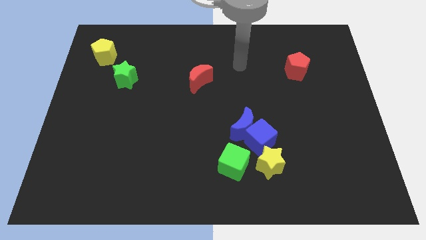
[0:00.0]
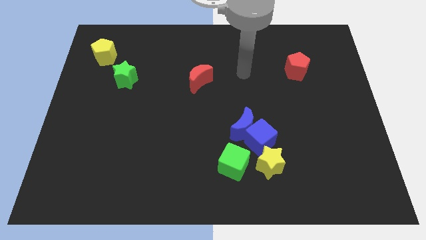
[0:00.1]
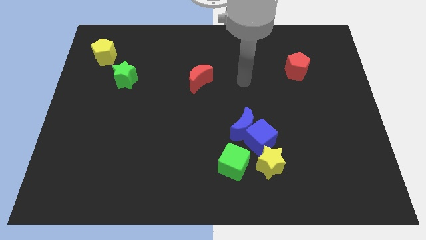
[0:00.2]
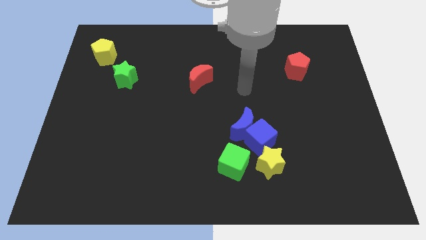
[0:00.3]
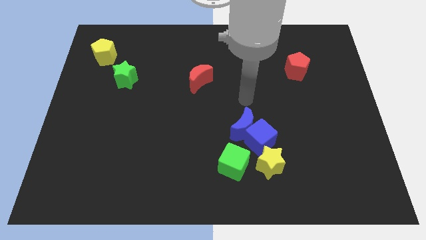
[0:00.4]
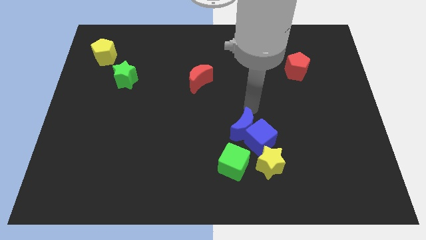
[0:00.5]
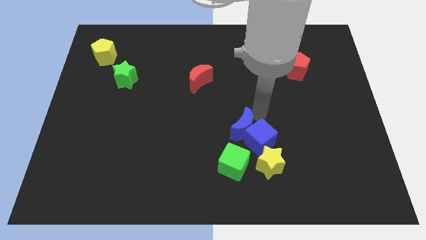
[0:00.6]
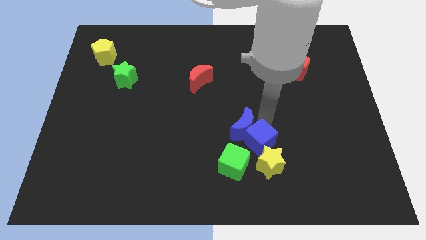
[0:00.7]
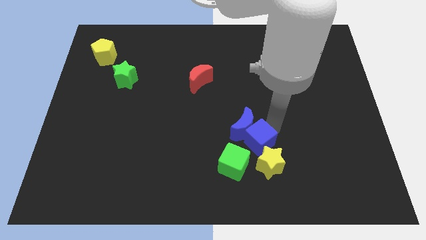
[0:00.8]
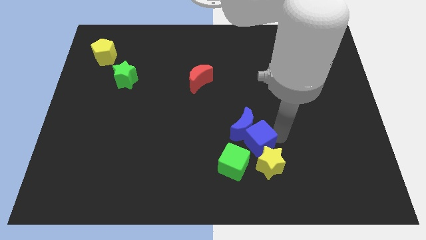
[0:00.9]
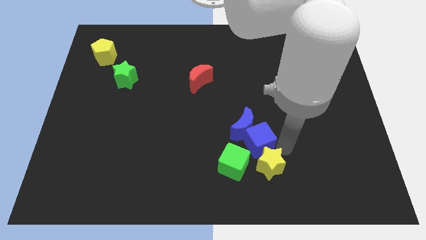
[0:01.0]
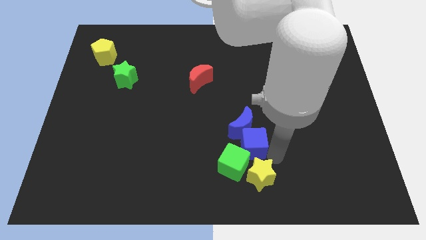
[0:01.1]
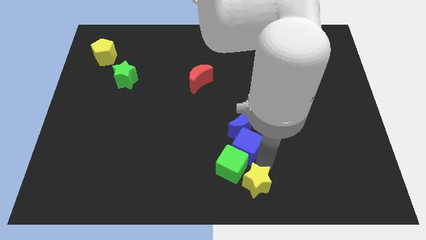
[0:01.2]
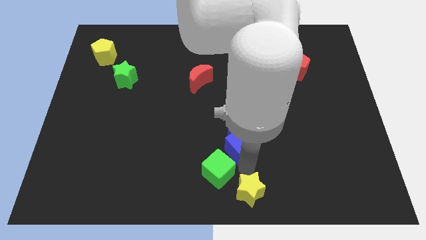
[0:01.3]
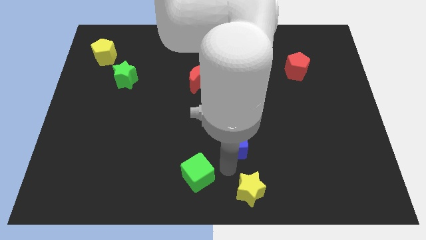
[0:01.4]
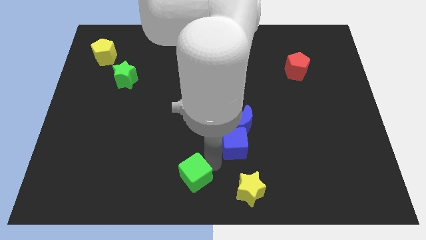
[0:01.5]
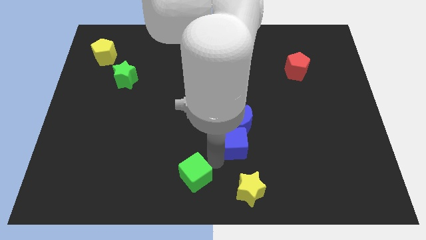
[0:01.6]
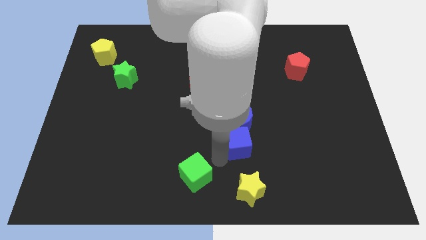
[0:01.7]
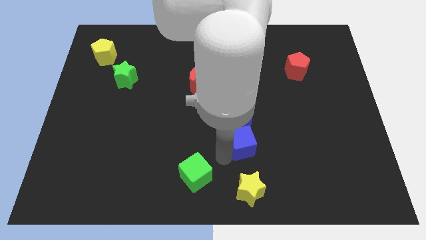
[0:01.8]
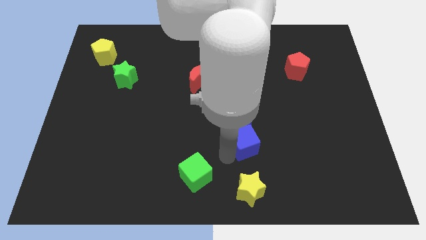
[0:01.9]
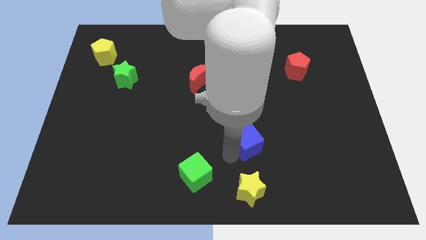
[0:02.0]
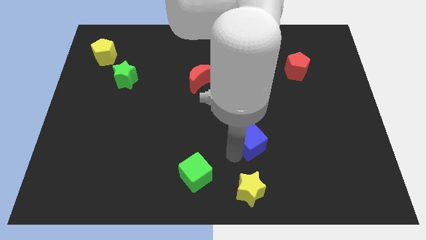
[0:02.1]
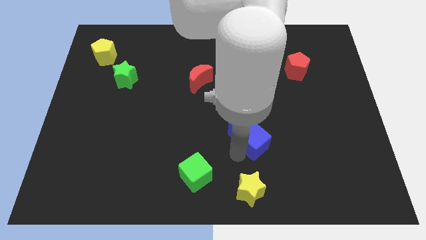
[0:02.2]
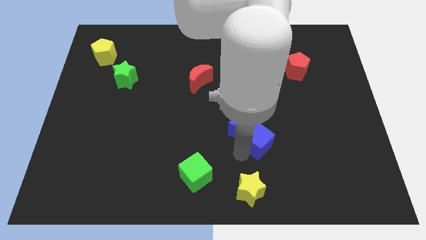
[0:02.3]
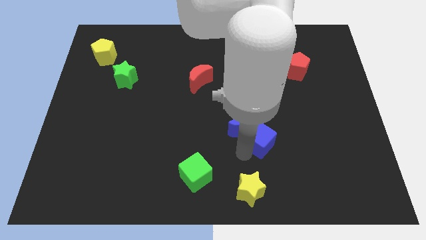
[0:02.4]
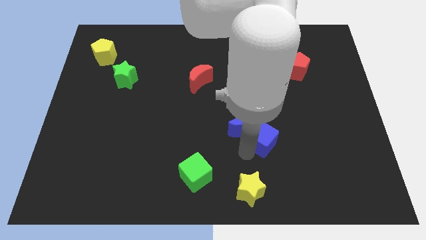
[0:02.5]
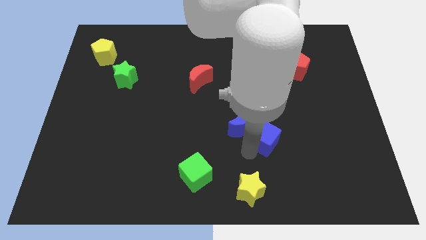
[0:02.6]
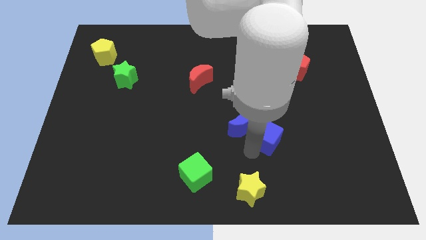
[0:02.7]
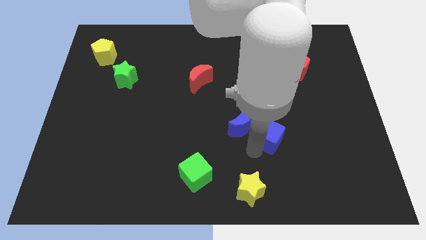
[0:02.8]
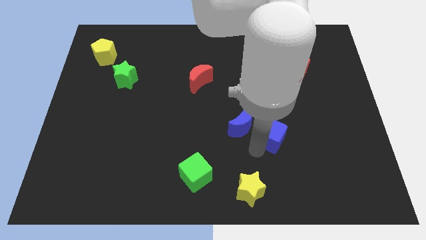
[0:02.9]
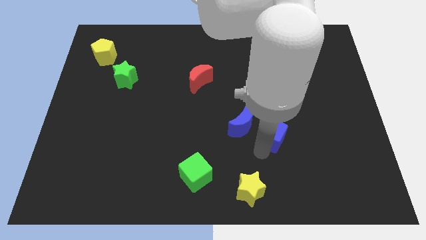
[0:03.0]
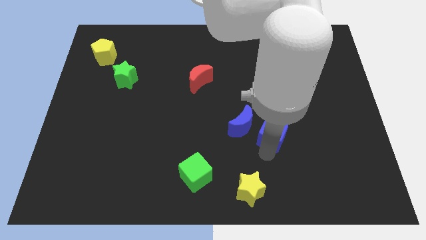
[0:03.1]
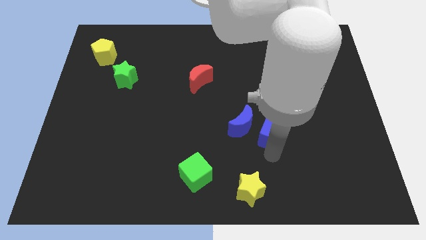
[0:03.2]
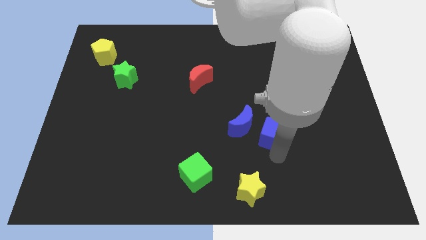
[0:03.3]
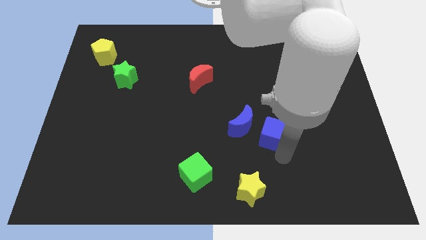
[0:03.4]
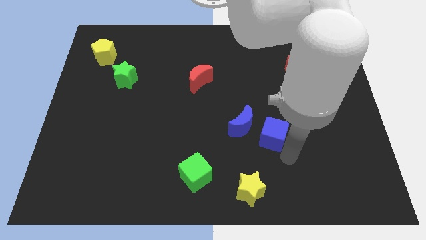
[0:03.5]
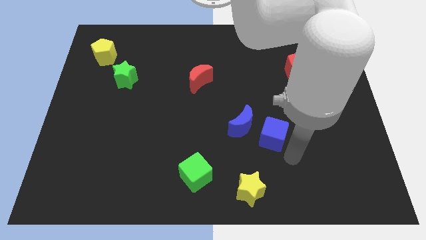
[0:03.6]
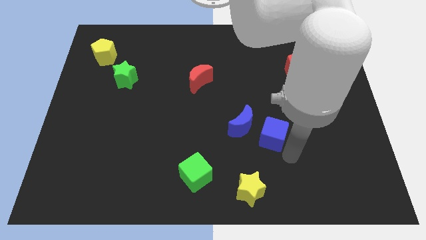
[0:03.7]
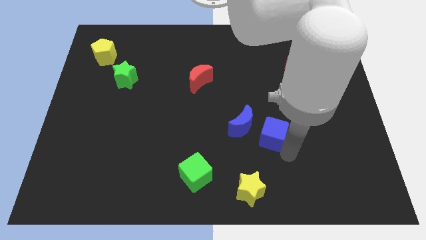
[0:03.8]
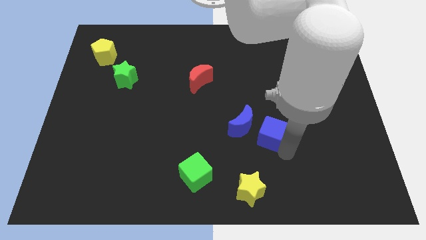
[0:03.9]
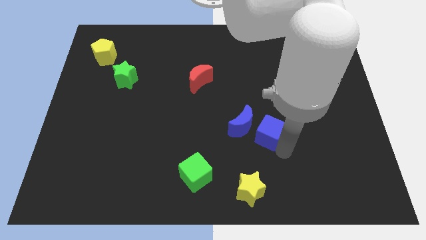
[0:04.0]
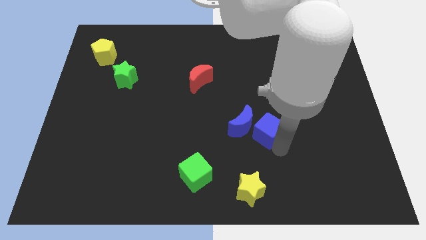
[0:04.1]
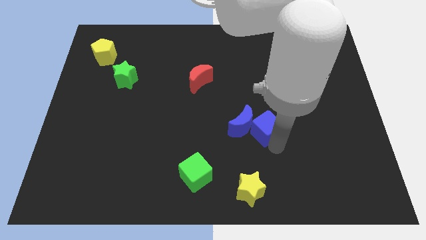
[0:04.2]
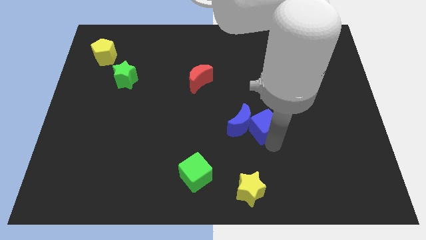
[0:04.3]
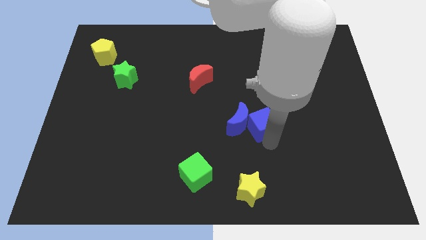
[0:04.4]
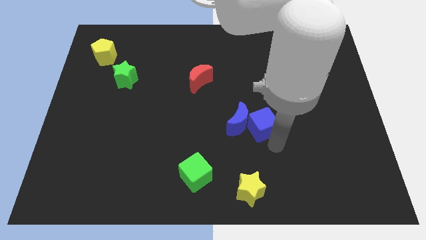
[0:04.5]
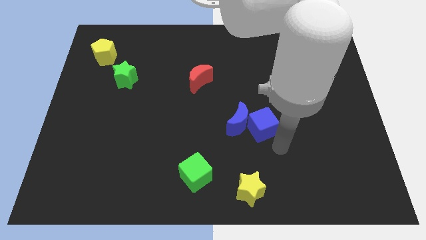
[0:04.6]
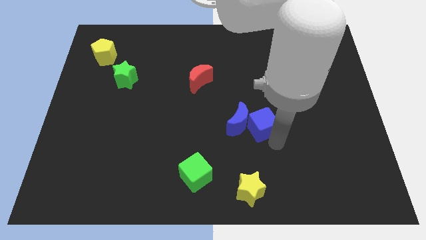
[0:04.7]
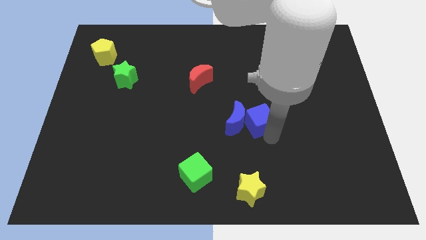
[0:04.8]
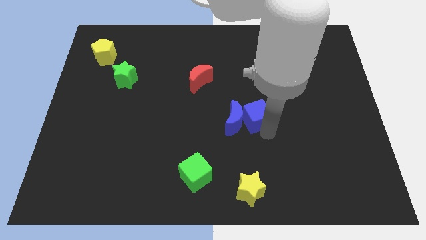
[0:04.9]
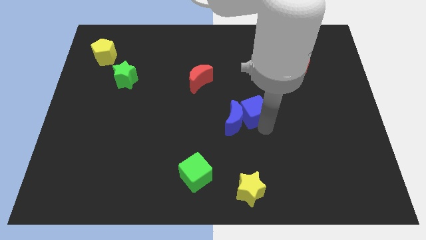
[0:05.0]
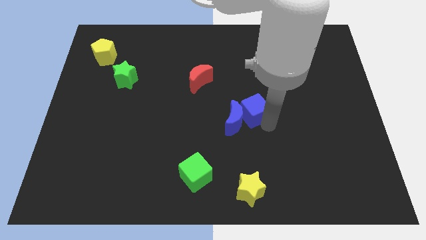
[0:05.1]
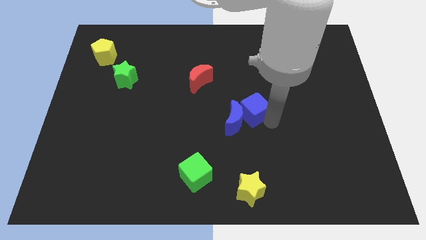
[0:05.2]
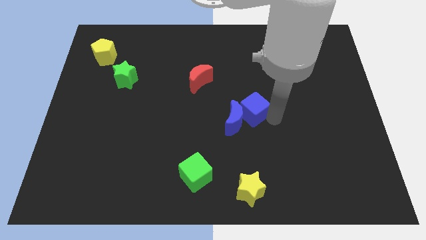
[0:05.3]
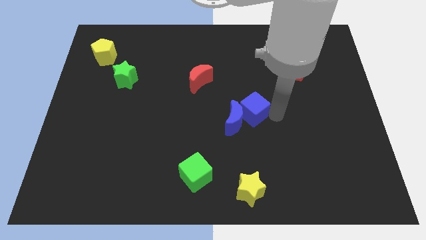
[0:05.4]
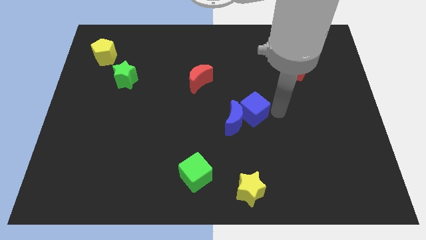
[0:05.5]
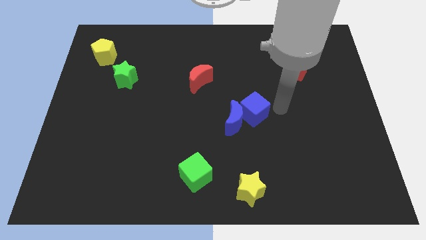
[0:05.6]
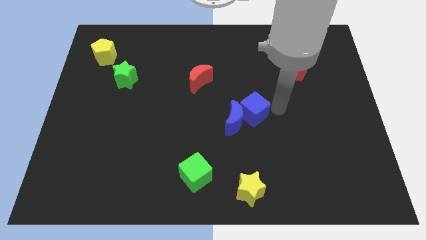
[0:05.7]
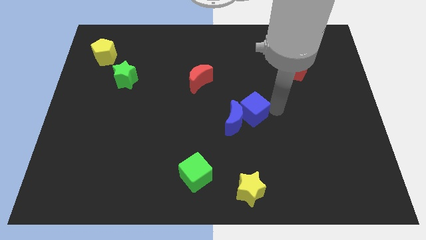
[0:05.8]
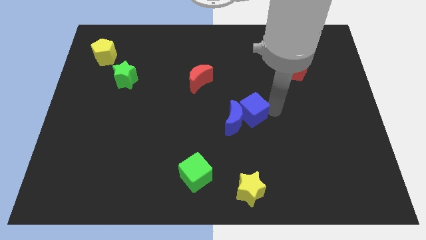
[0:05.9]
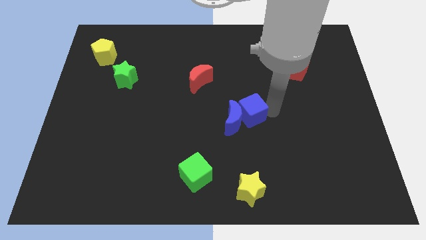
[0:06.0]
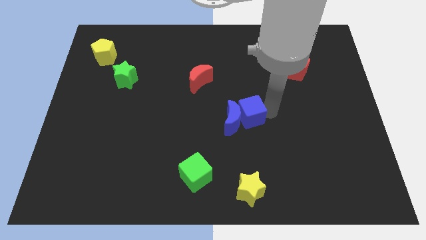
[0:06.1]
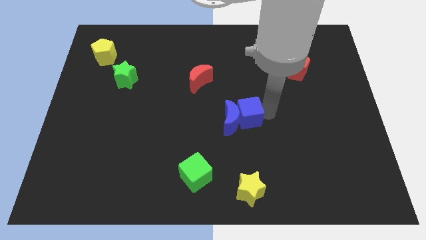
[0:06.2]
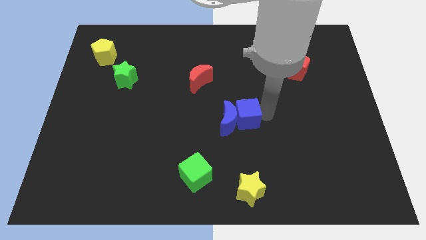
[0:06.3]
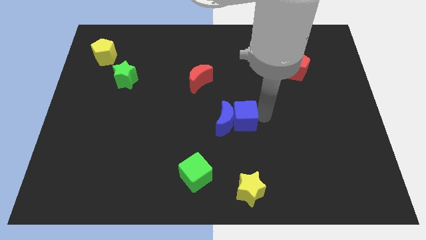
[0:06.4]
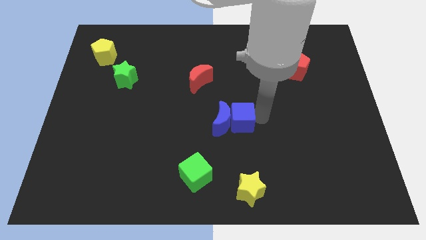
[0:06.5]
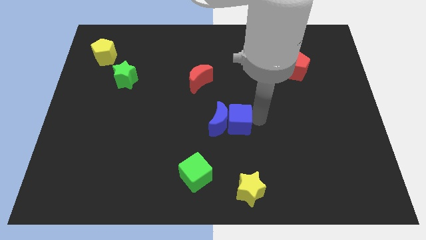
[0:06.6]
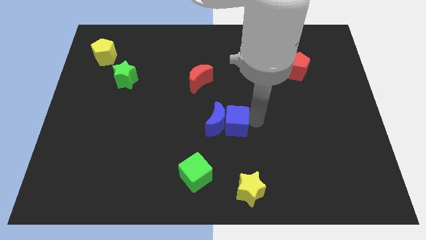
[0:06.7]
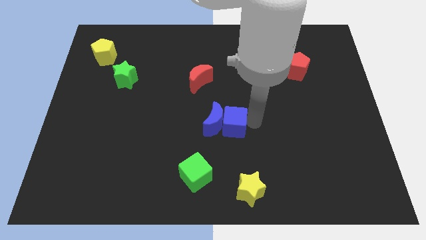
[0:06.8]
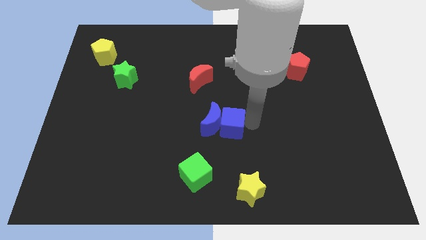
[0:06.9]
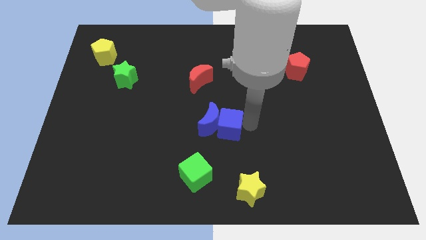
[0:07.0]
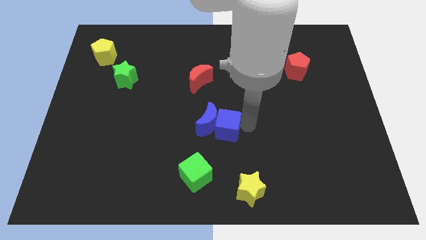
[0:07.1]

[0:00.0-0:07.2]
slide the blue cube somewhat to the left

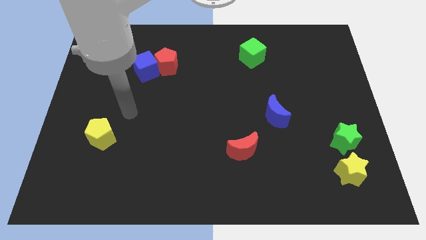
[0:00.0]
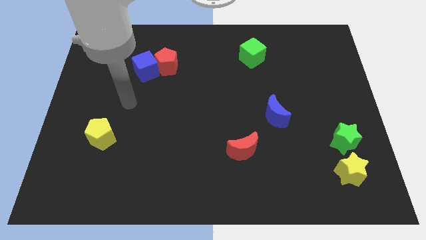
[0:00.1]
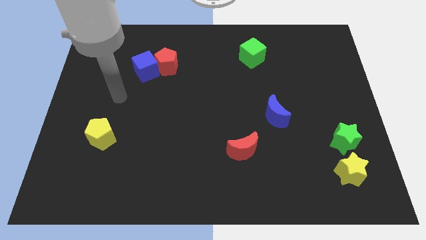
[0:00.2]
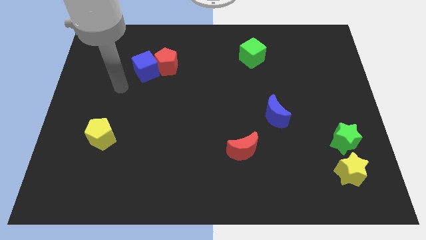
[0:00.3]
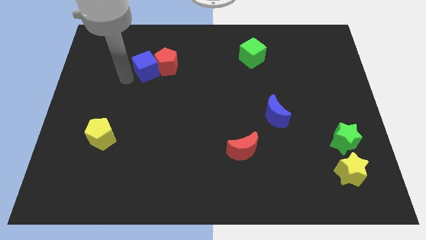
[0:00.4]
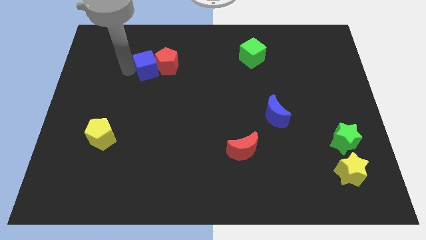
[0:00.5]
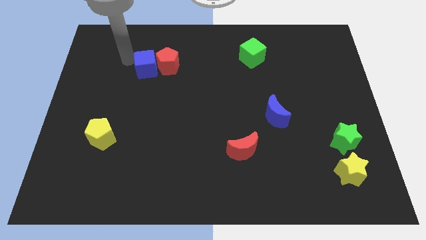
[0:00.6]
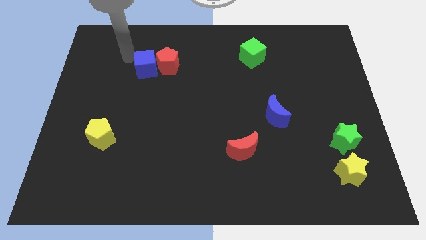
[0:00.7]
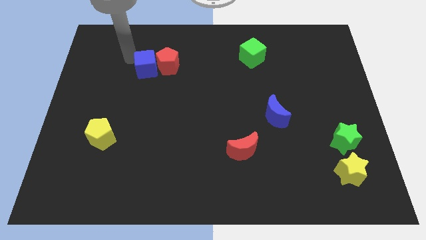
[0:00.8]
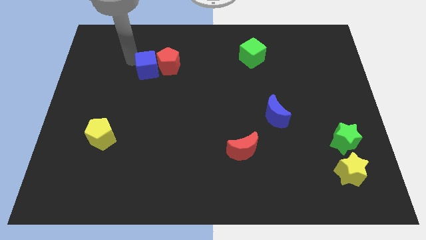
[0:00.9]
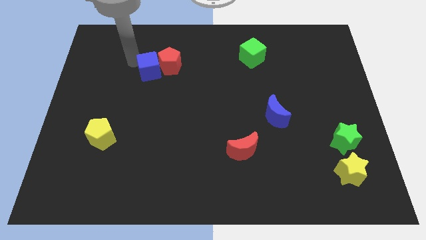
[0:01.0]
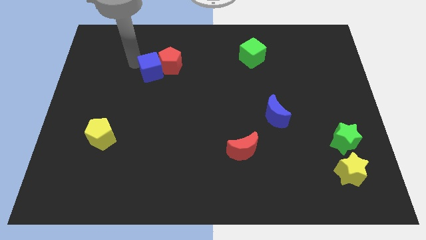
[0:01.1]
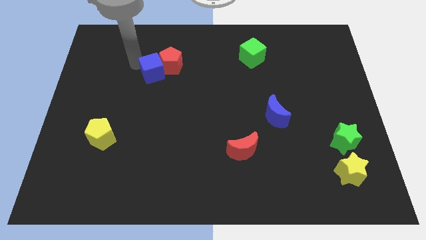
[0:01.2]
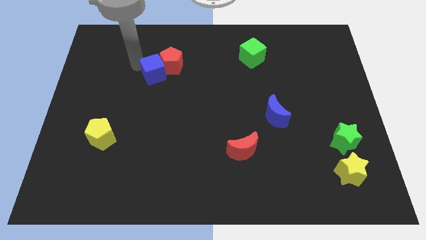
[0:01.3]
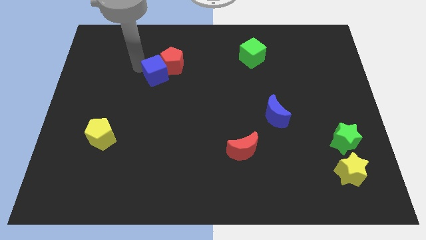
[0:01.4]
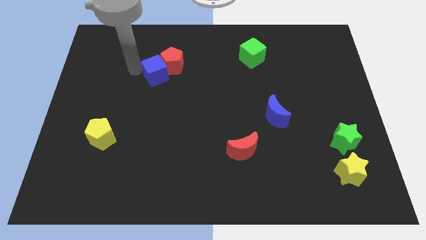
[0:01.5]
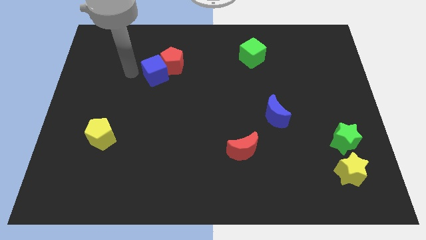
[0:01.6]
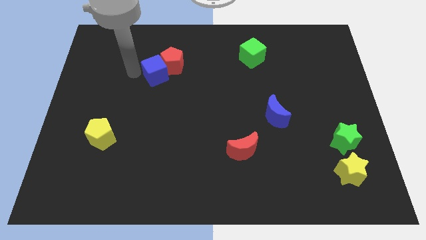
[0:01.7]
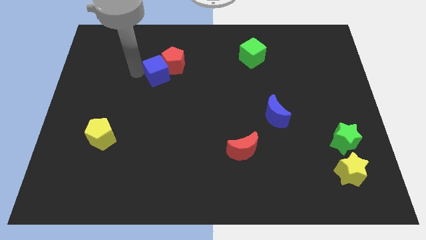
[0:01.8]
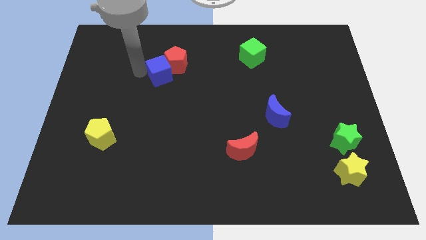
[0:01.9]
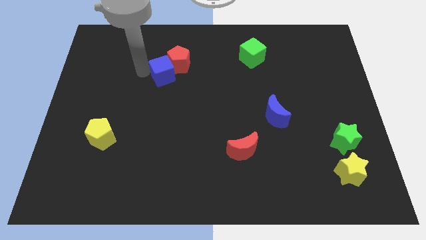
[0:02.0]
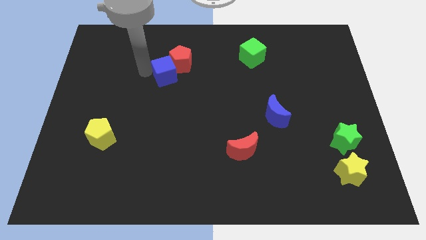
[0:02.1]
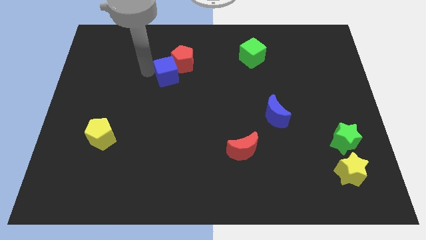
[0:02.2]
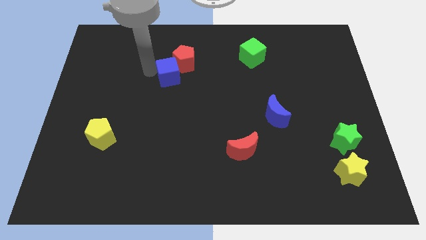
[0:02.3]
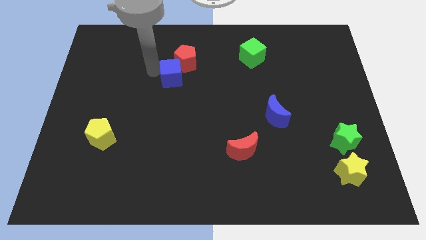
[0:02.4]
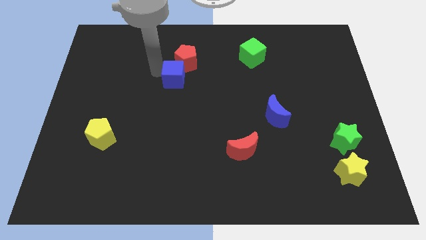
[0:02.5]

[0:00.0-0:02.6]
slide the blue cube to the right slightly
